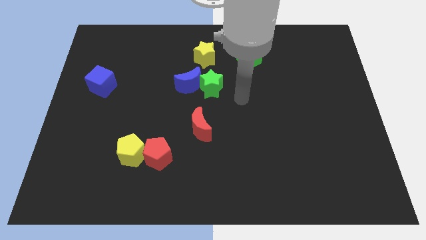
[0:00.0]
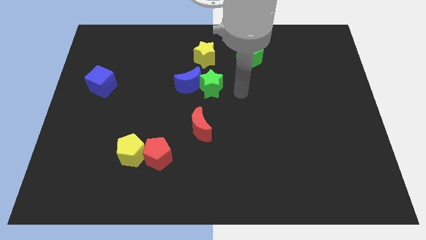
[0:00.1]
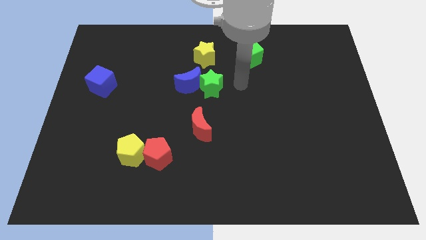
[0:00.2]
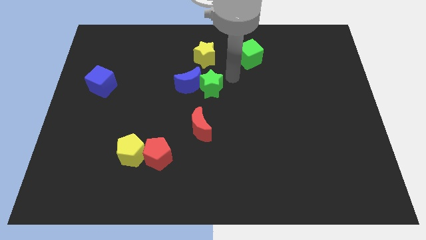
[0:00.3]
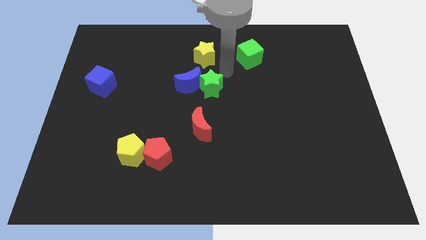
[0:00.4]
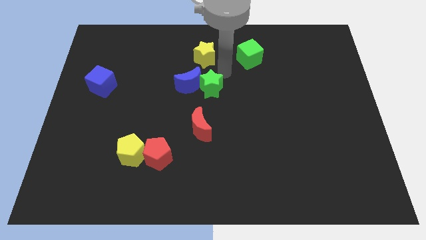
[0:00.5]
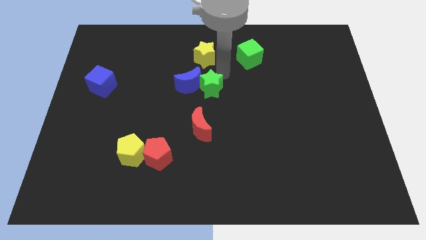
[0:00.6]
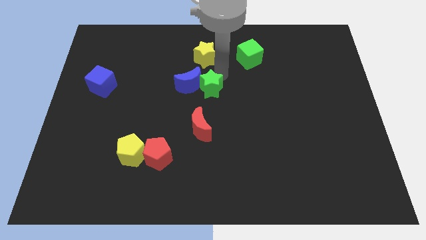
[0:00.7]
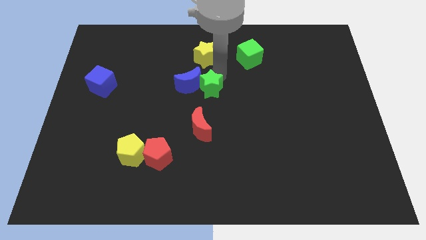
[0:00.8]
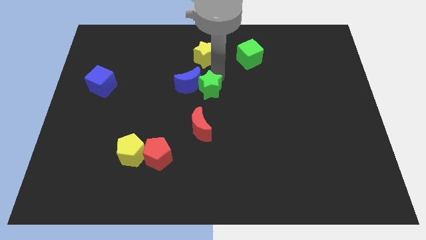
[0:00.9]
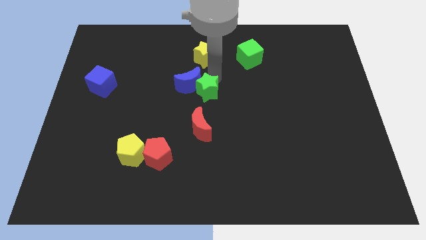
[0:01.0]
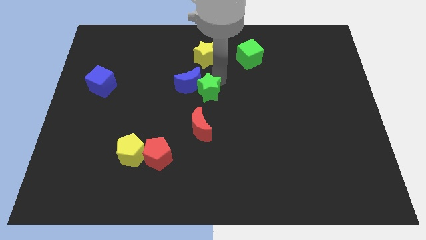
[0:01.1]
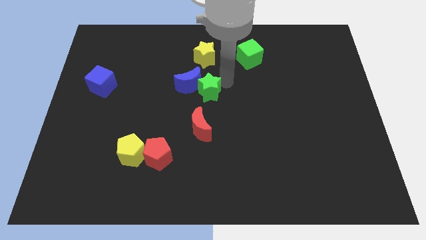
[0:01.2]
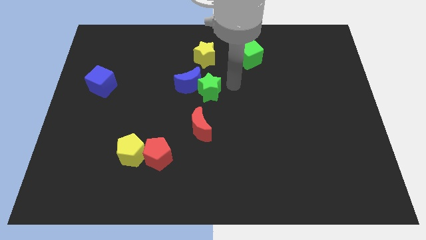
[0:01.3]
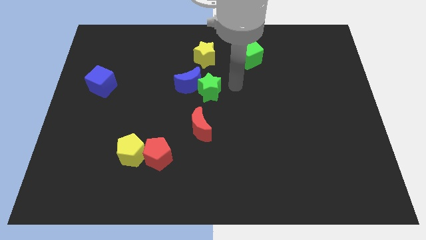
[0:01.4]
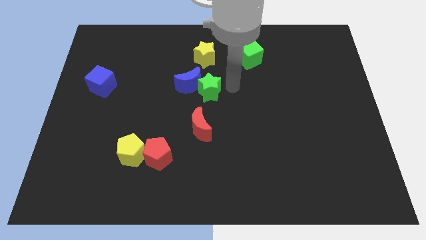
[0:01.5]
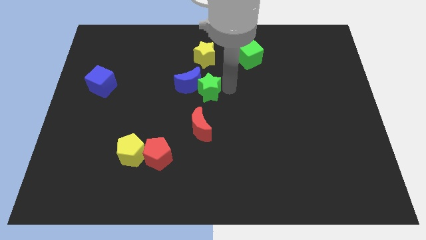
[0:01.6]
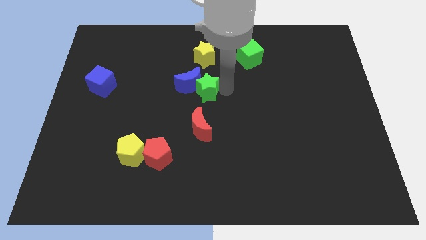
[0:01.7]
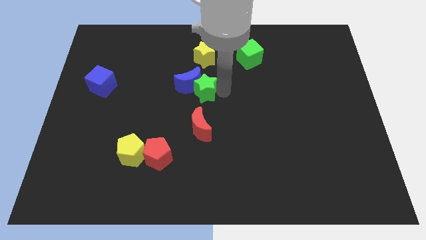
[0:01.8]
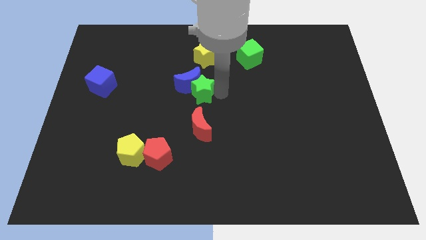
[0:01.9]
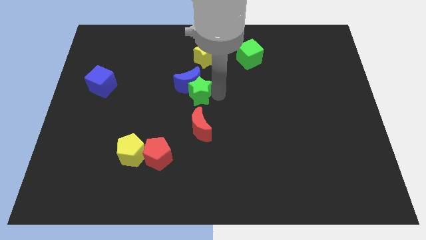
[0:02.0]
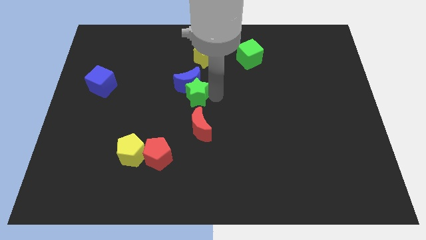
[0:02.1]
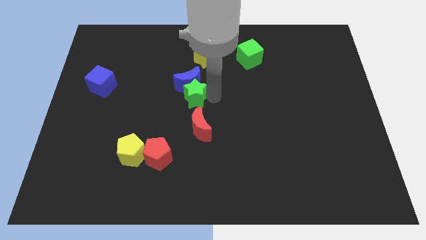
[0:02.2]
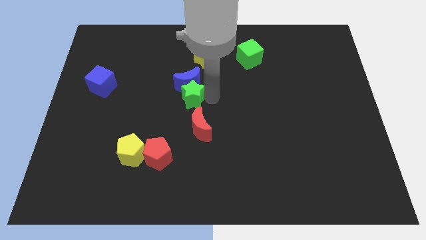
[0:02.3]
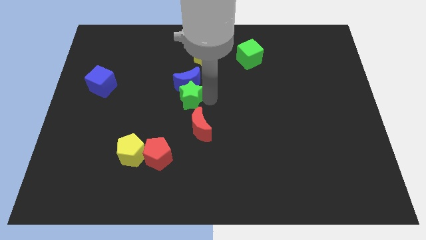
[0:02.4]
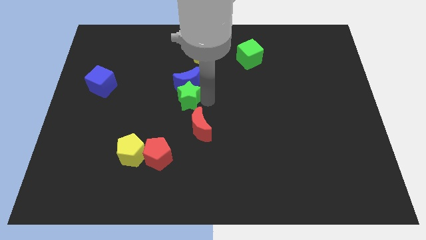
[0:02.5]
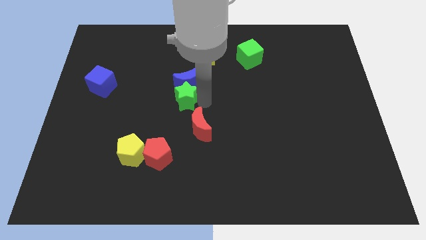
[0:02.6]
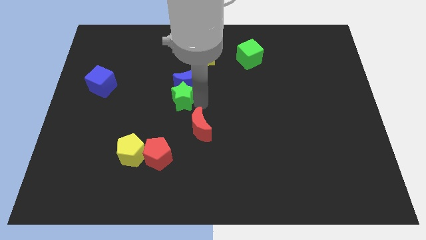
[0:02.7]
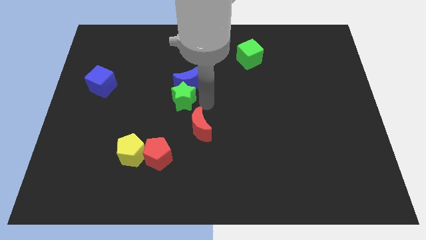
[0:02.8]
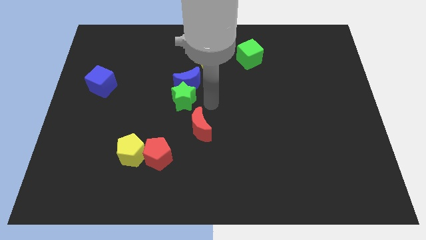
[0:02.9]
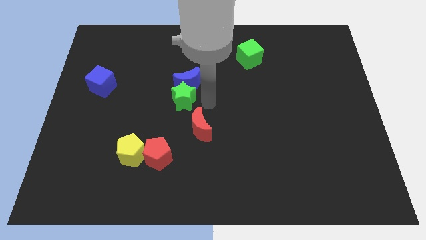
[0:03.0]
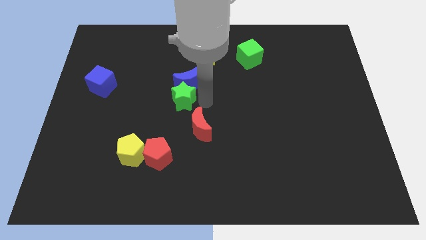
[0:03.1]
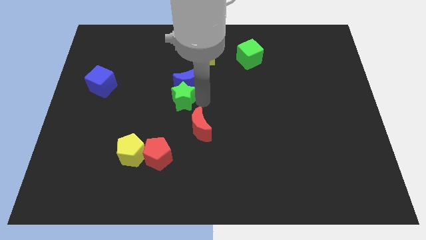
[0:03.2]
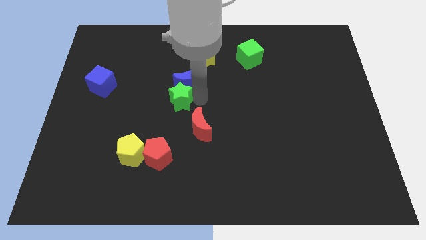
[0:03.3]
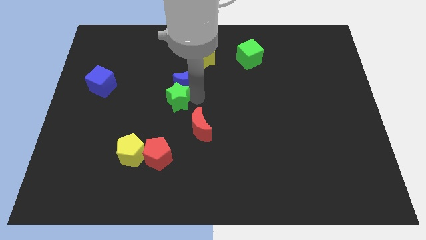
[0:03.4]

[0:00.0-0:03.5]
slightly slide the green star left

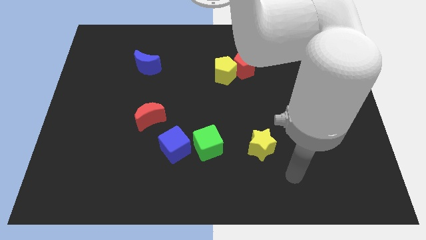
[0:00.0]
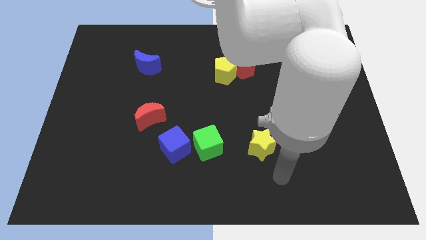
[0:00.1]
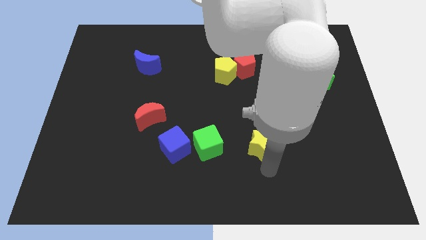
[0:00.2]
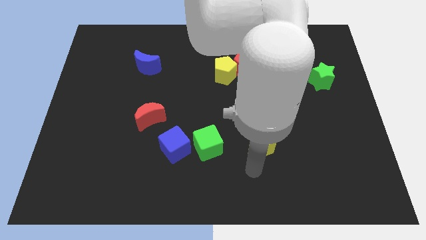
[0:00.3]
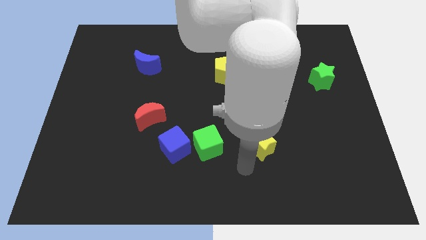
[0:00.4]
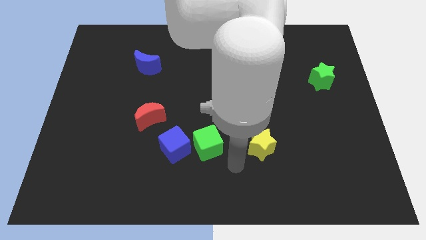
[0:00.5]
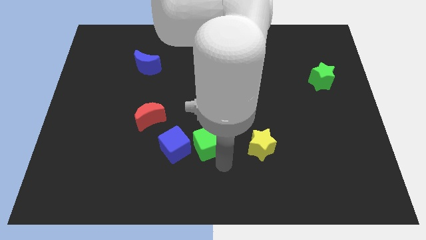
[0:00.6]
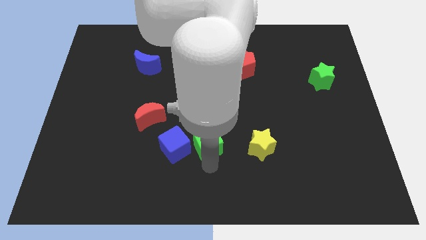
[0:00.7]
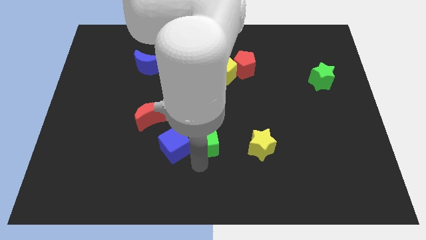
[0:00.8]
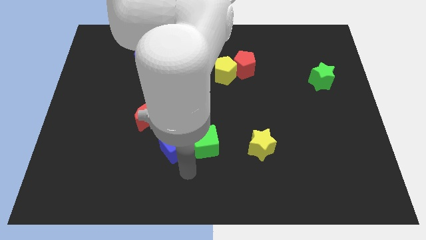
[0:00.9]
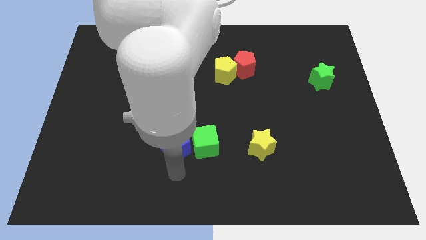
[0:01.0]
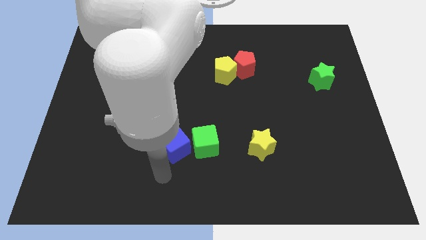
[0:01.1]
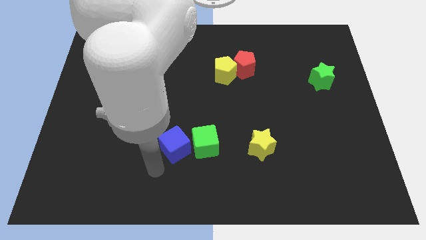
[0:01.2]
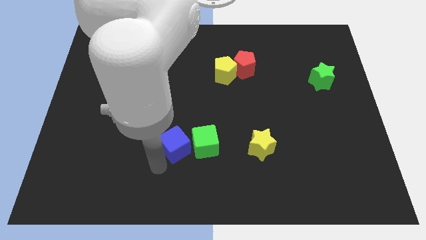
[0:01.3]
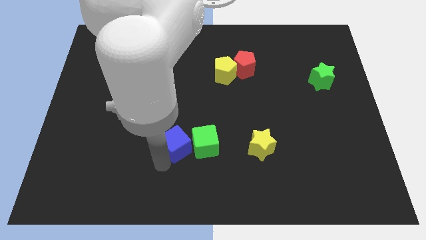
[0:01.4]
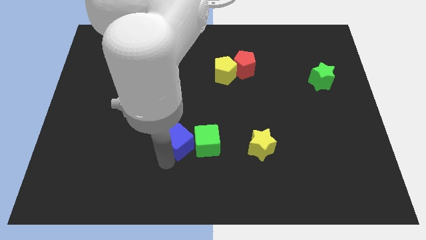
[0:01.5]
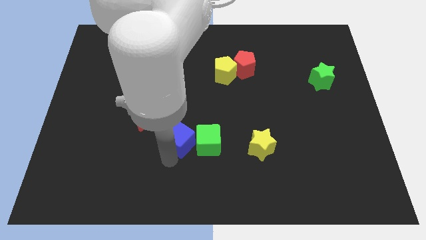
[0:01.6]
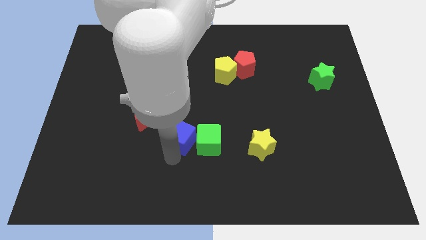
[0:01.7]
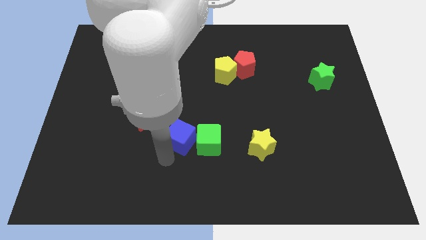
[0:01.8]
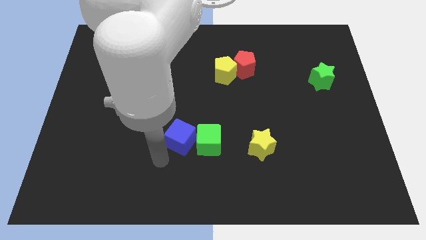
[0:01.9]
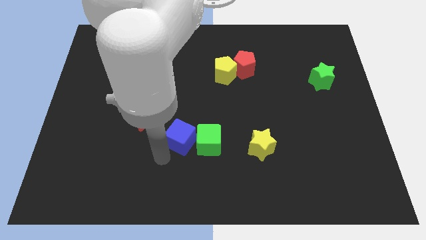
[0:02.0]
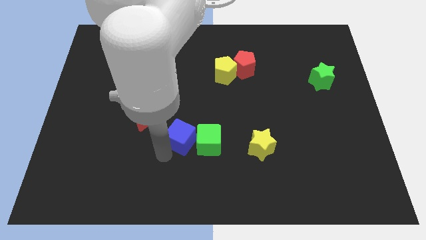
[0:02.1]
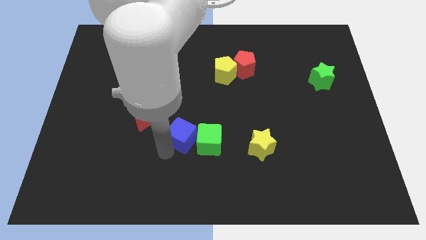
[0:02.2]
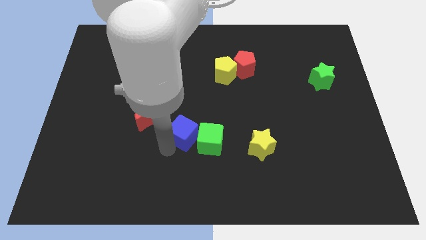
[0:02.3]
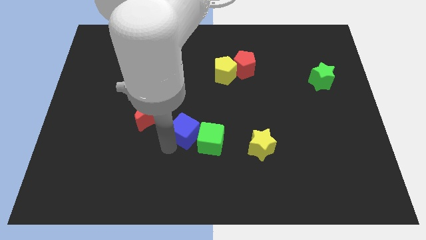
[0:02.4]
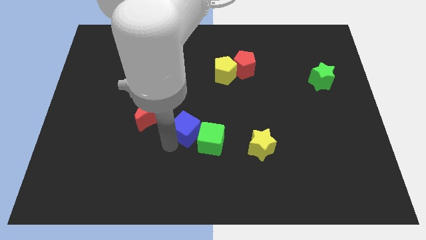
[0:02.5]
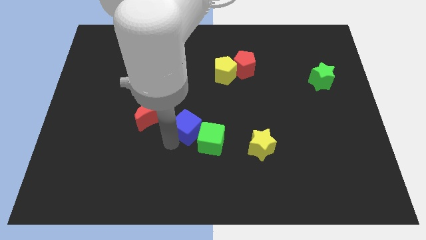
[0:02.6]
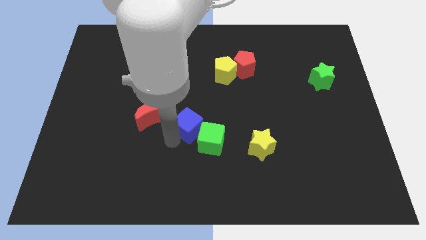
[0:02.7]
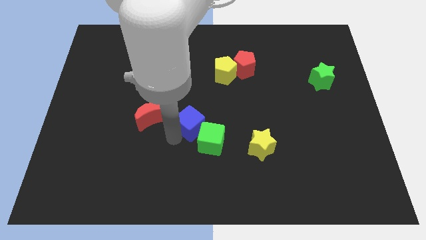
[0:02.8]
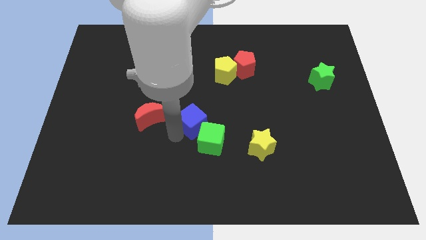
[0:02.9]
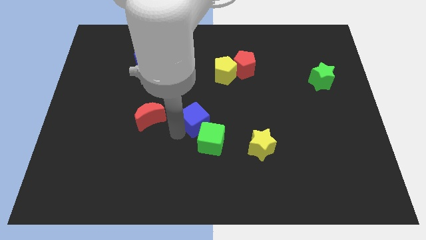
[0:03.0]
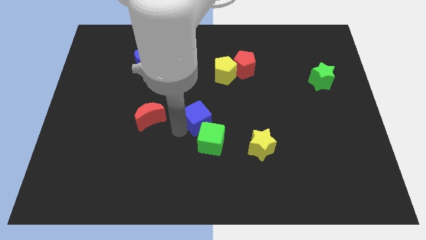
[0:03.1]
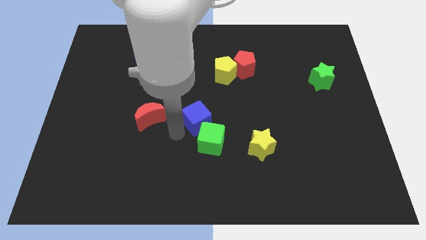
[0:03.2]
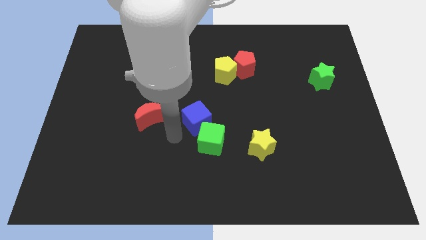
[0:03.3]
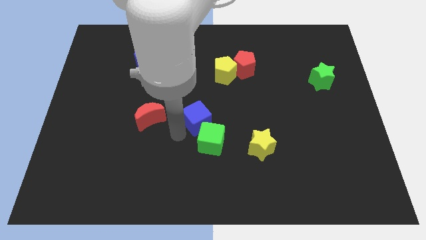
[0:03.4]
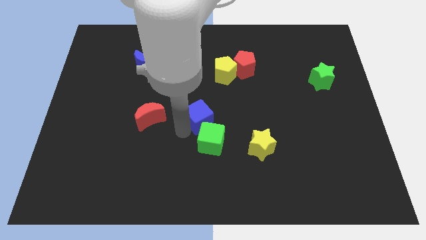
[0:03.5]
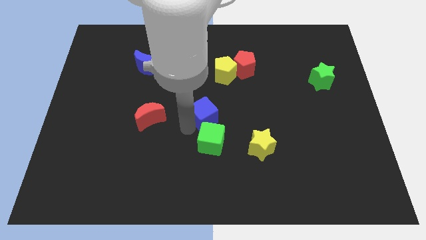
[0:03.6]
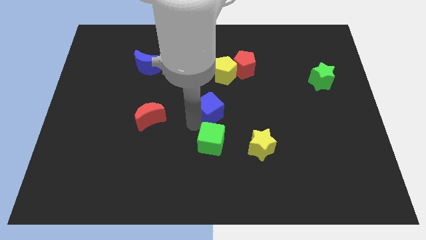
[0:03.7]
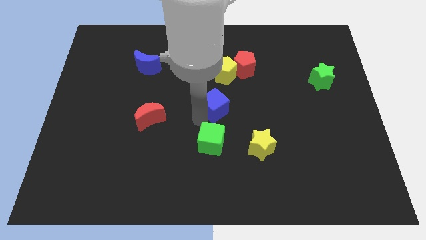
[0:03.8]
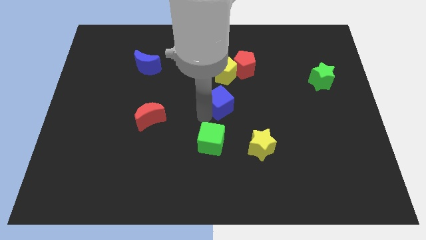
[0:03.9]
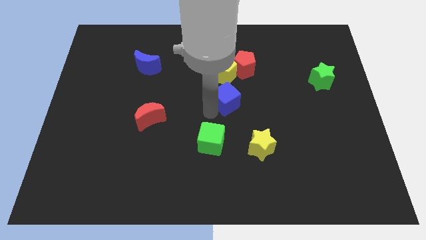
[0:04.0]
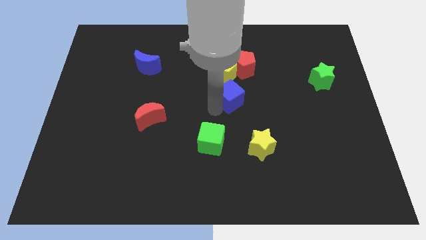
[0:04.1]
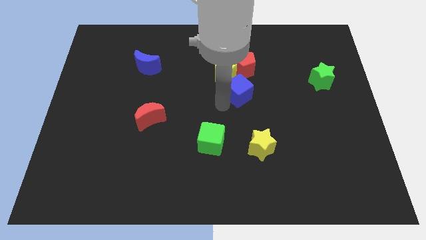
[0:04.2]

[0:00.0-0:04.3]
move the blue cube up and right

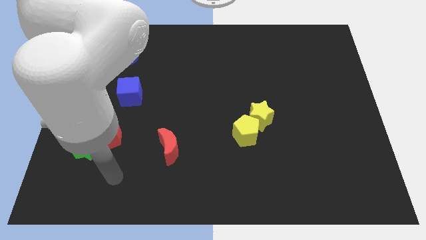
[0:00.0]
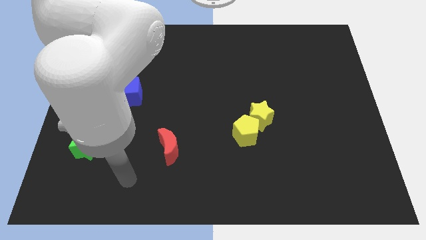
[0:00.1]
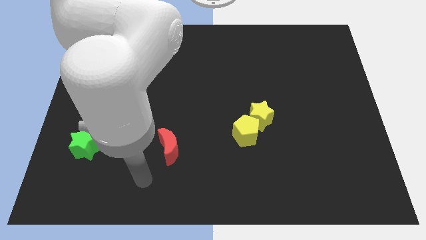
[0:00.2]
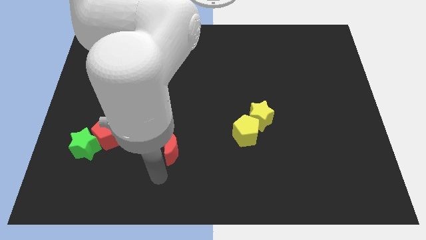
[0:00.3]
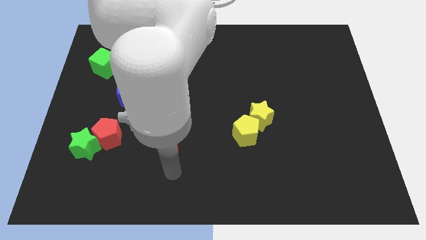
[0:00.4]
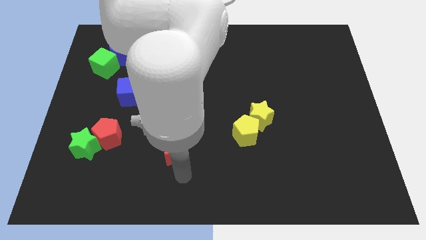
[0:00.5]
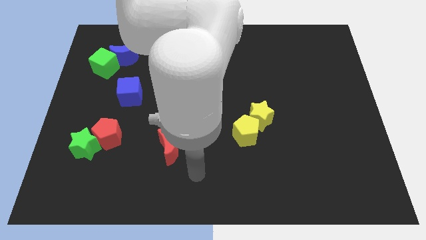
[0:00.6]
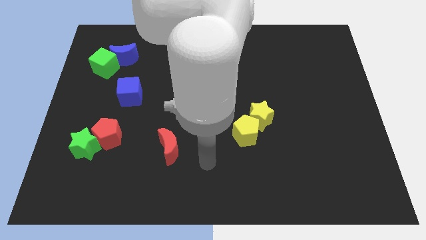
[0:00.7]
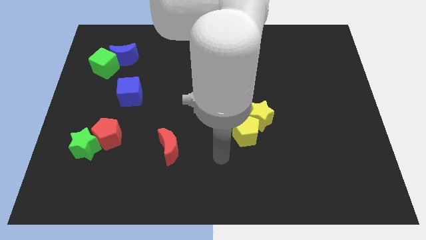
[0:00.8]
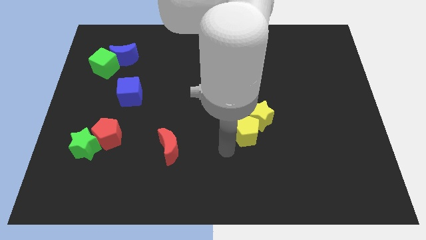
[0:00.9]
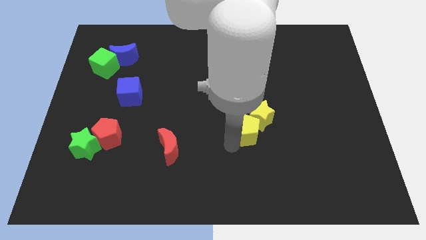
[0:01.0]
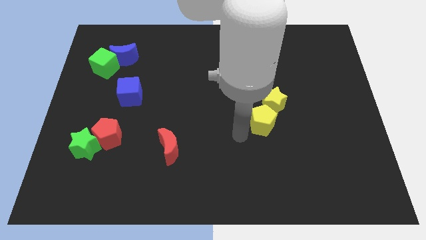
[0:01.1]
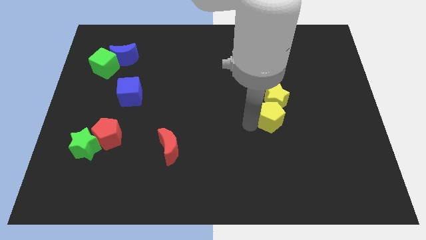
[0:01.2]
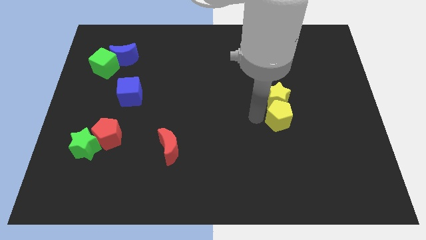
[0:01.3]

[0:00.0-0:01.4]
slightly push the yellow star up and then to the right
